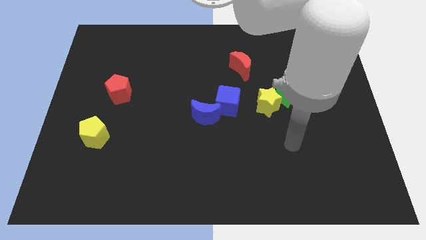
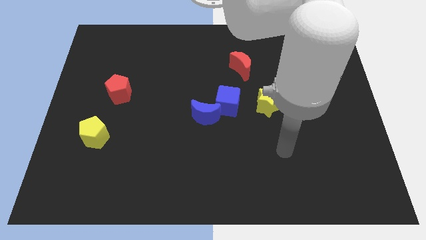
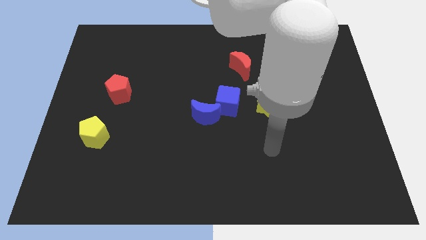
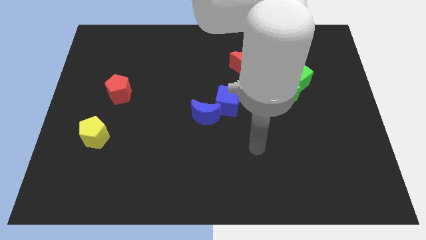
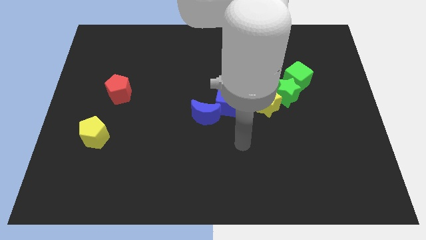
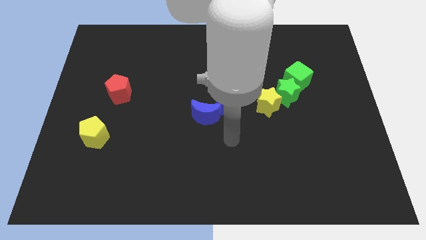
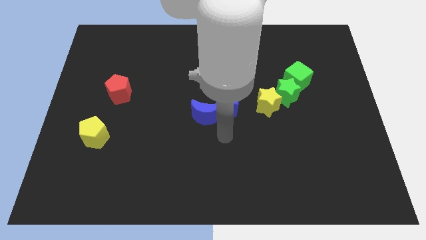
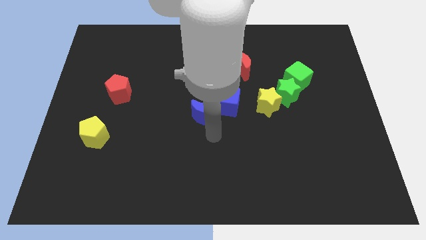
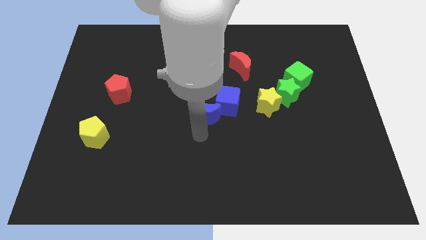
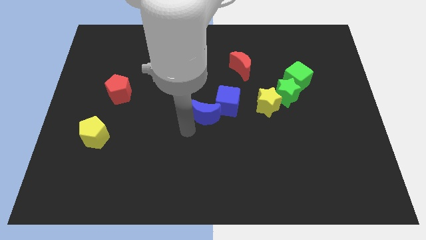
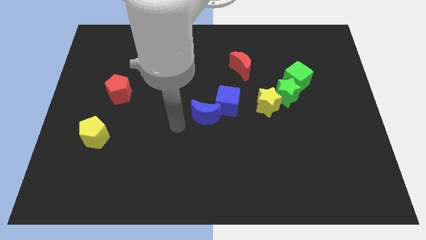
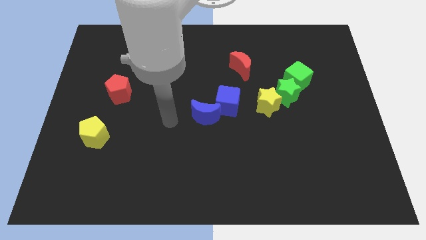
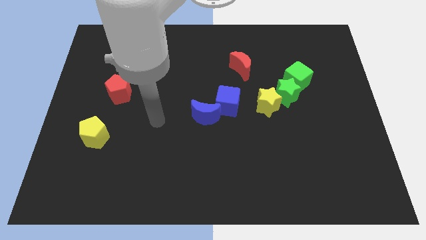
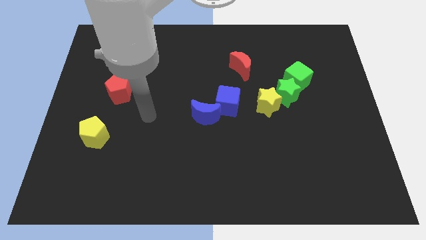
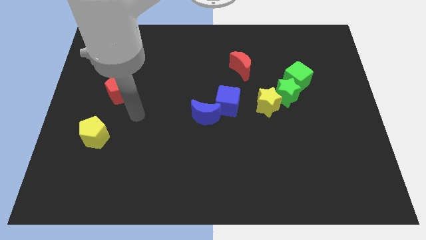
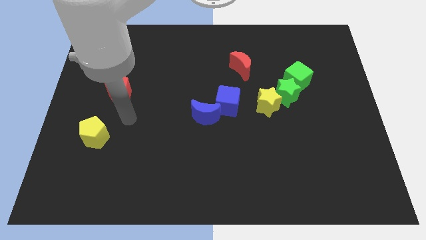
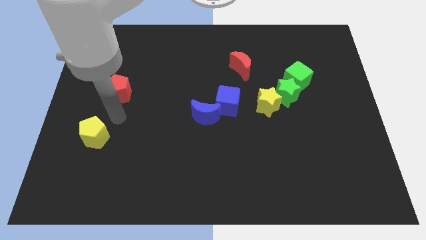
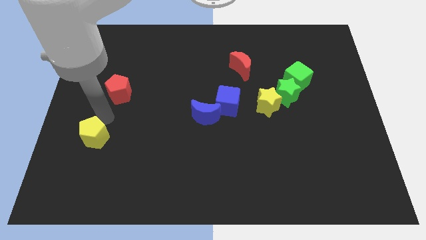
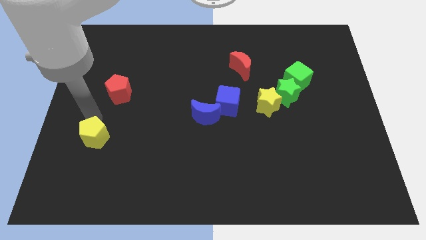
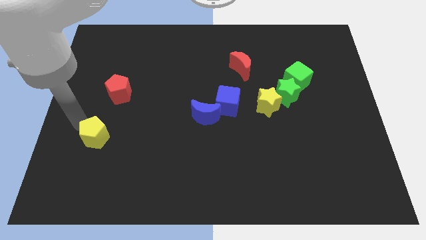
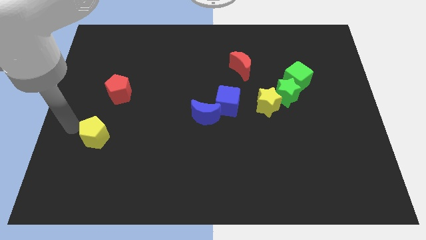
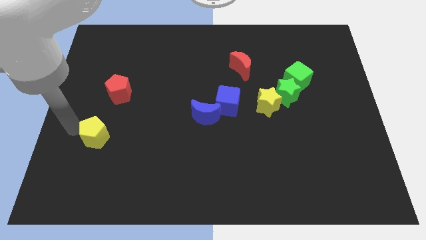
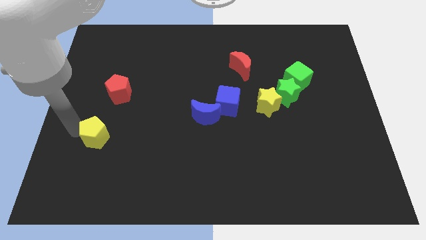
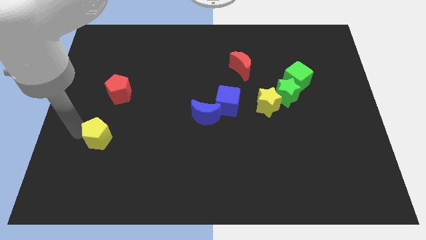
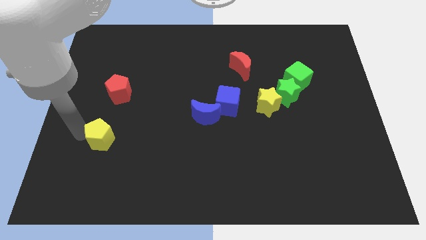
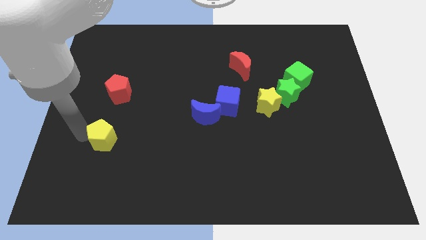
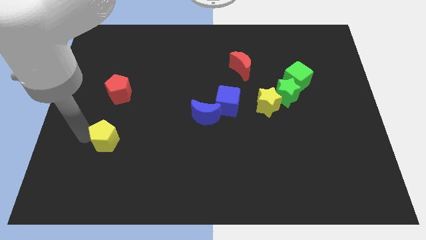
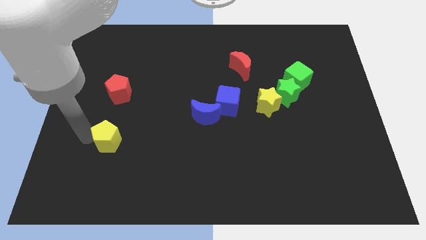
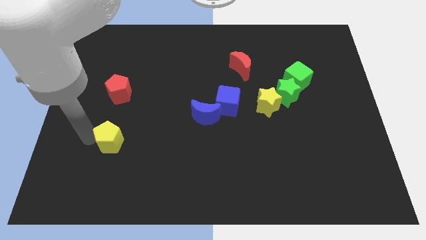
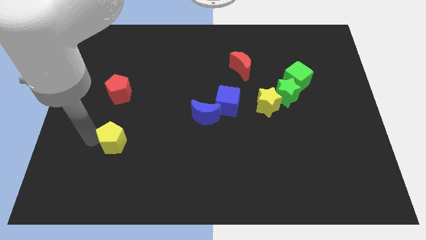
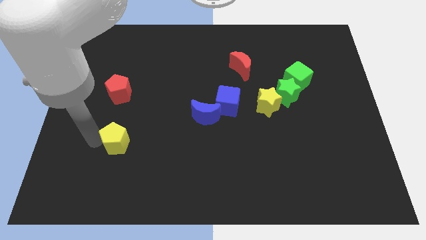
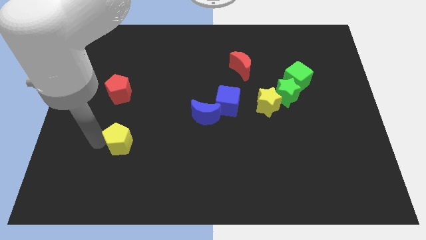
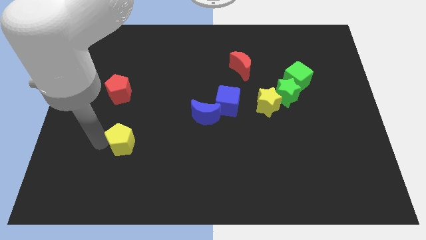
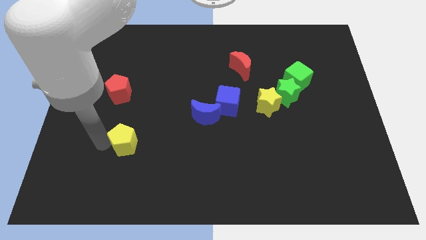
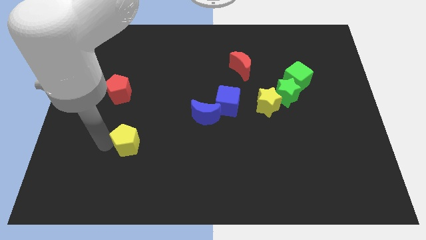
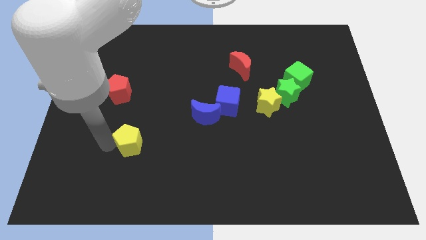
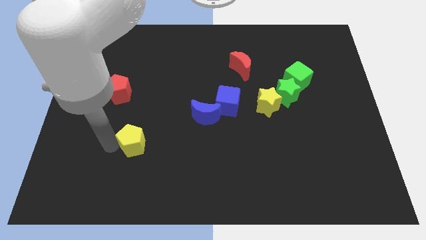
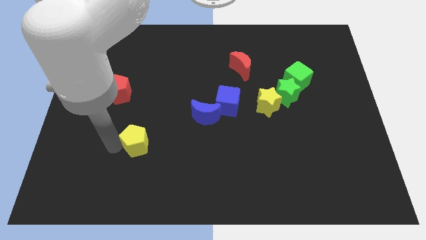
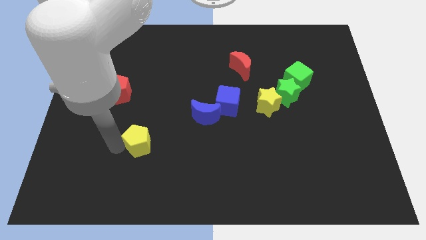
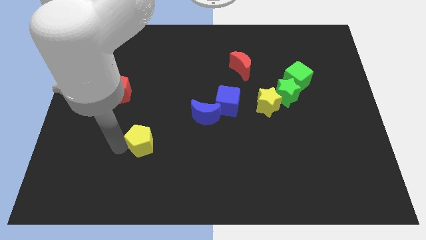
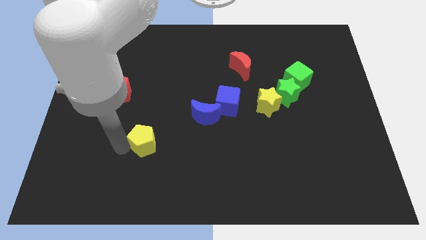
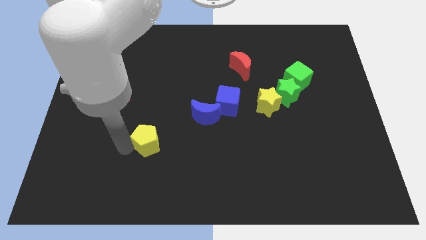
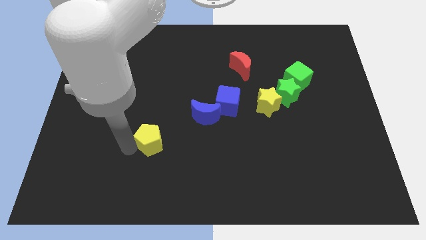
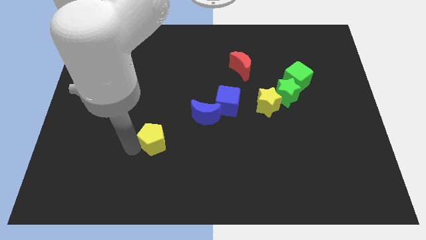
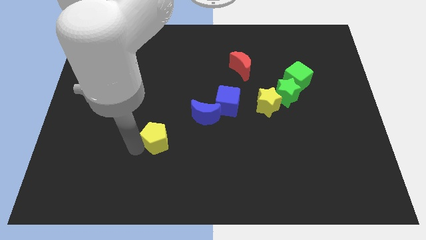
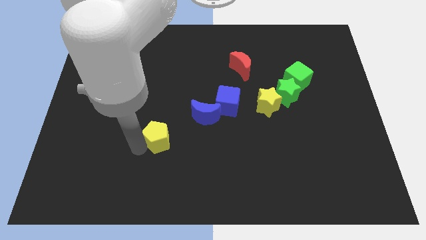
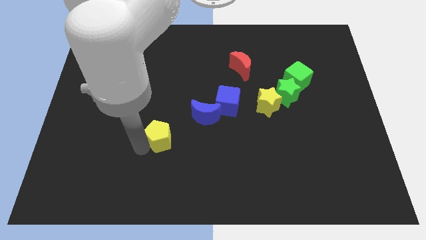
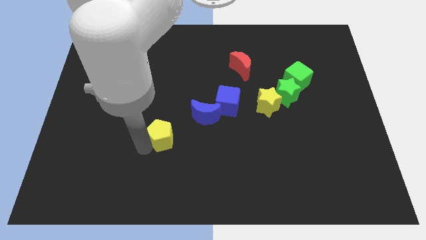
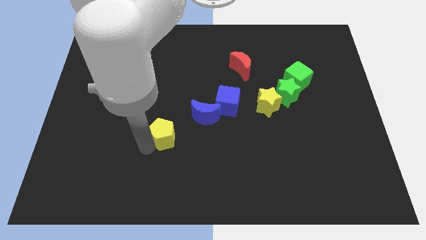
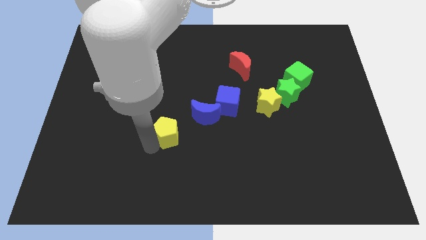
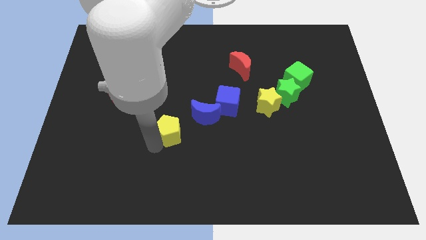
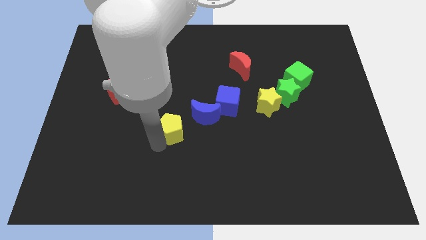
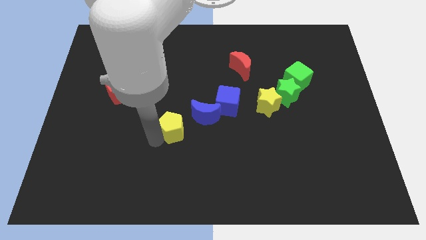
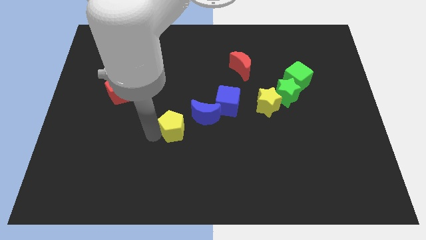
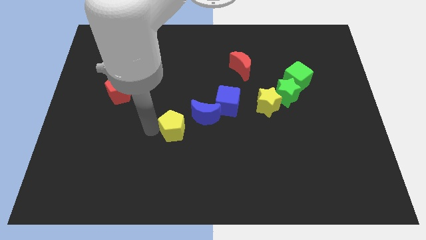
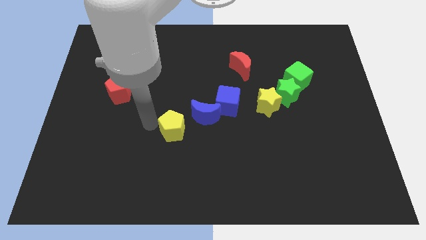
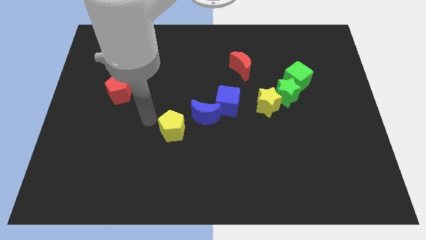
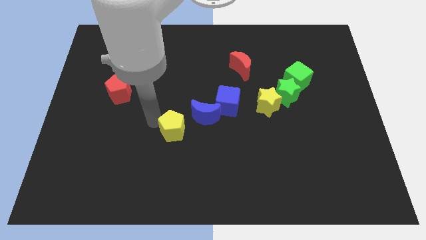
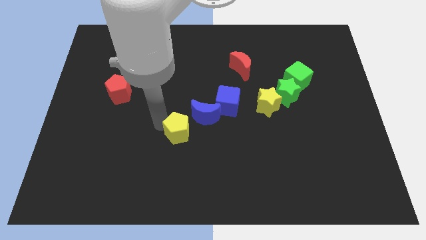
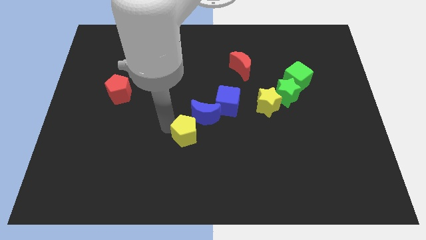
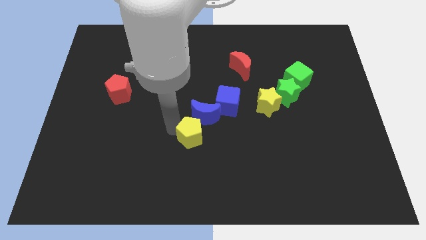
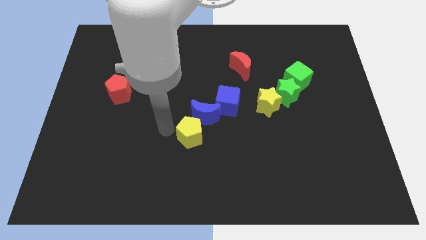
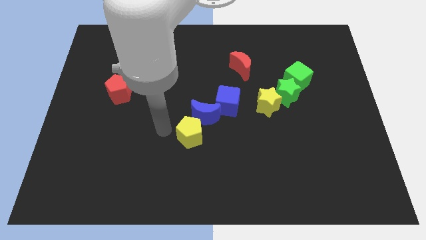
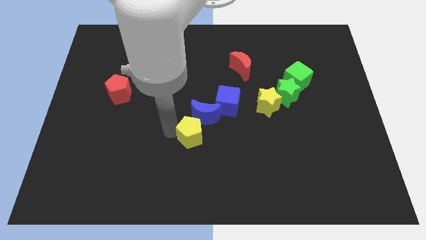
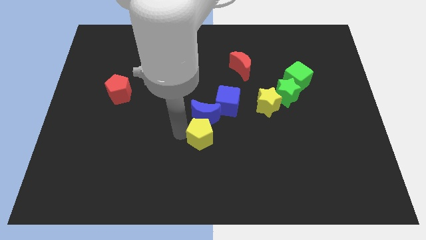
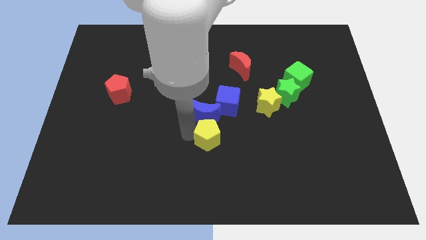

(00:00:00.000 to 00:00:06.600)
put the yellow pentagon below the blue cube

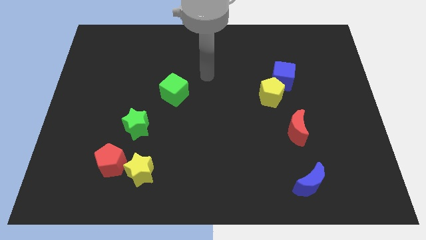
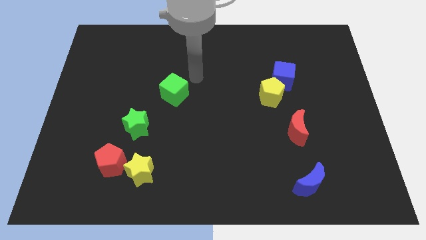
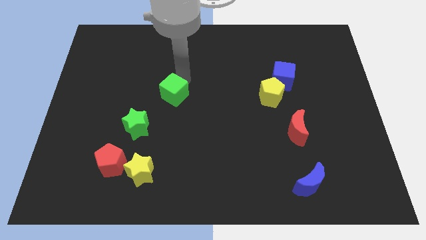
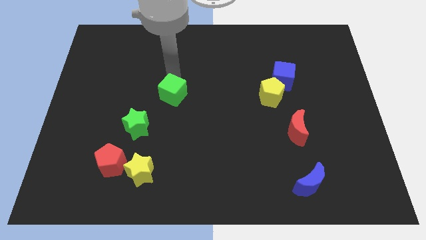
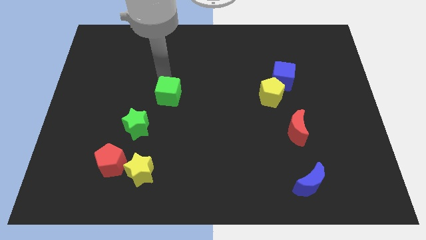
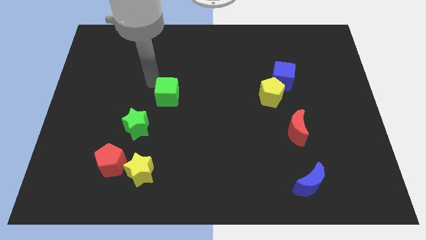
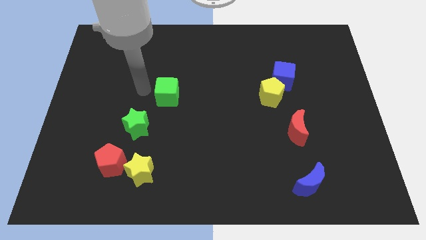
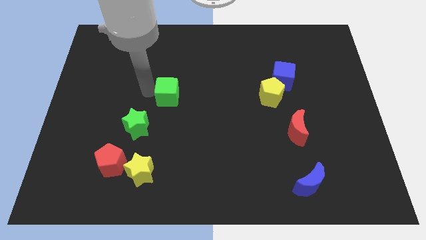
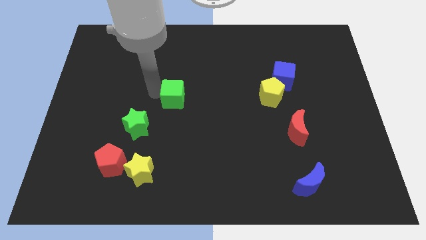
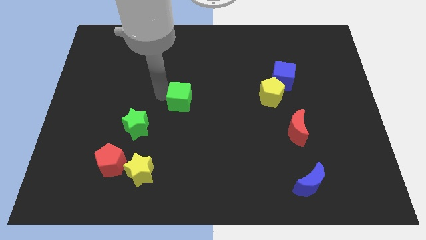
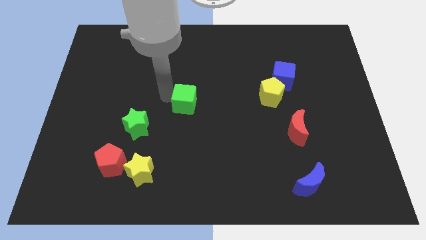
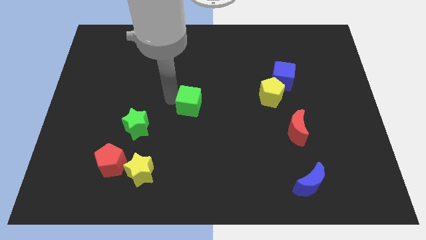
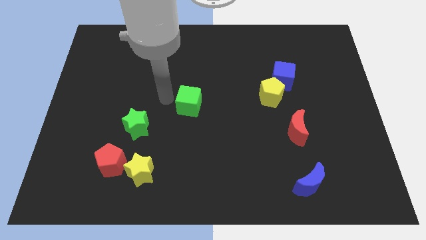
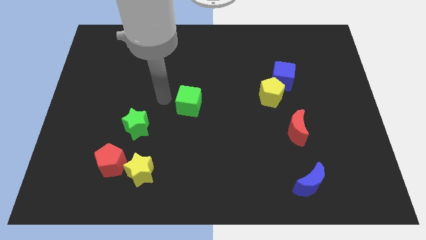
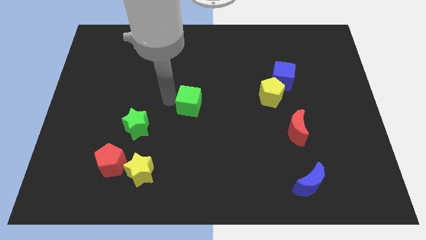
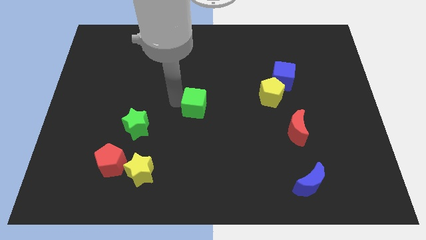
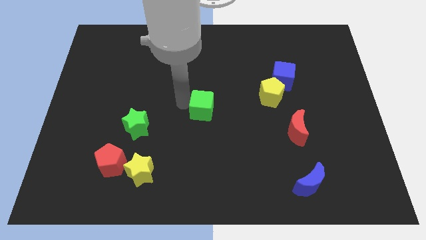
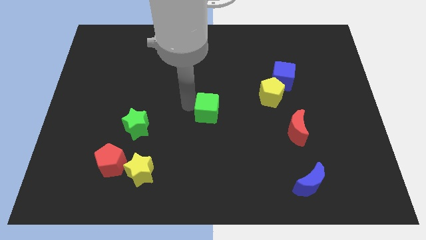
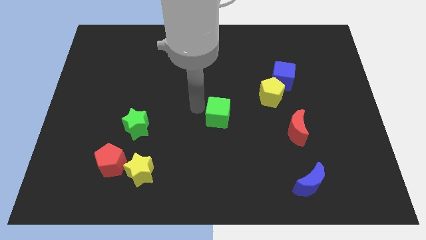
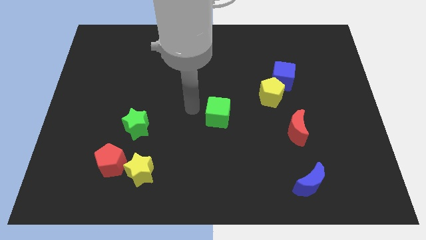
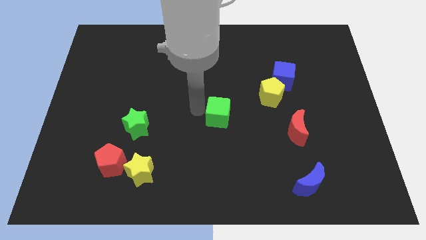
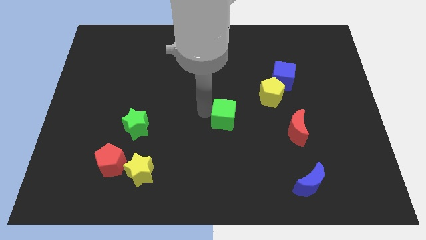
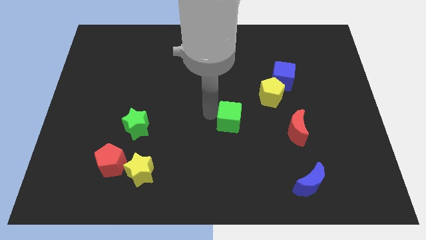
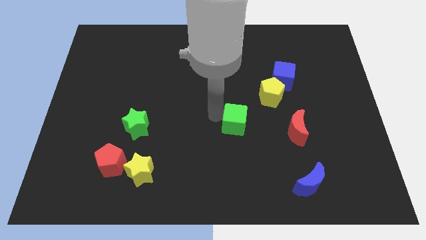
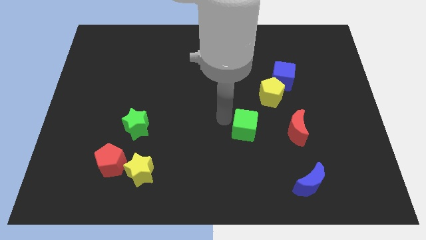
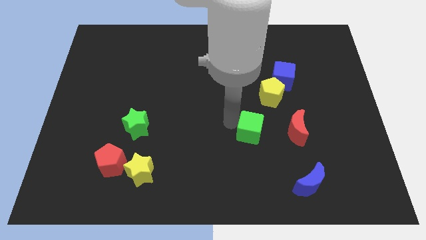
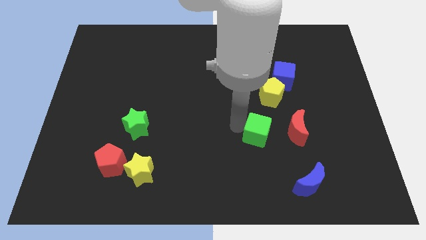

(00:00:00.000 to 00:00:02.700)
move the green cube below the yellow pentagon
